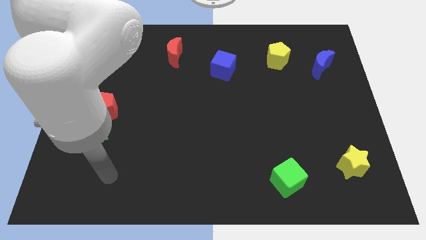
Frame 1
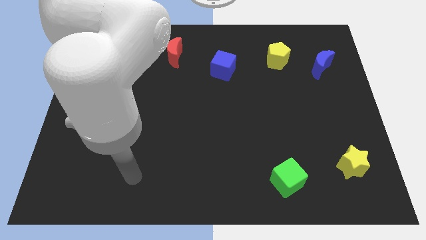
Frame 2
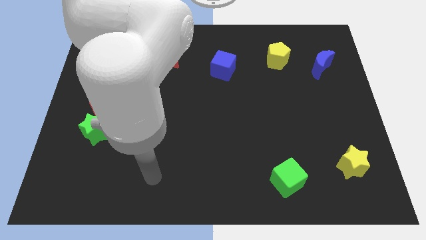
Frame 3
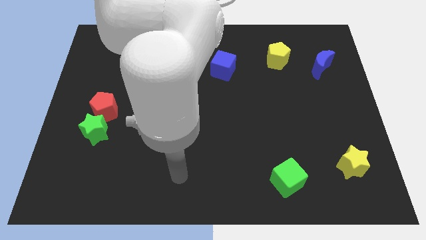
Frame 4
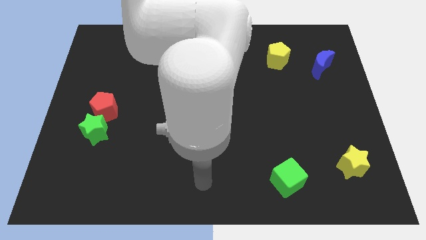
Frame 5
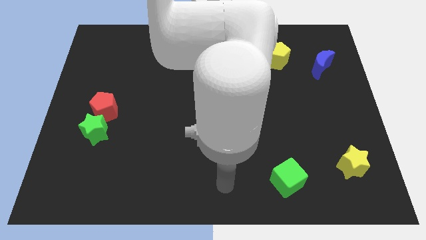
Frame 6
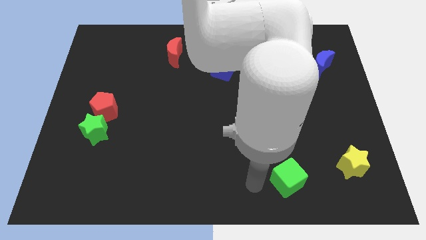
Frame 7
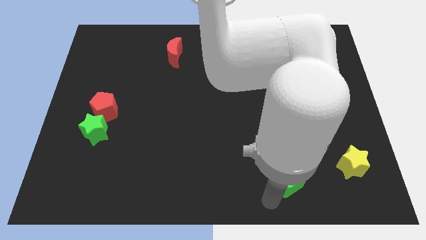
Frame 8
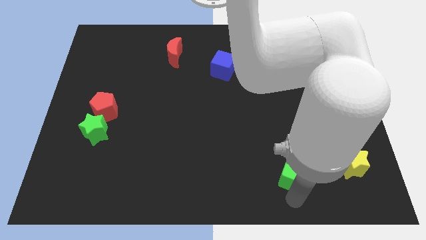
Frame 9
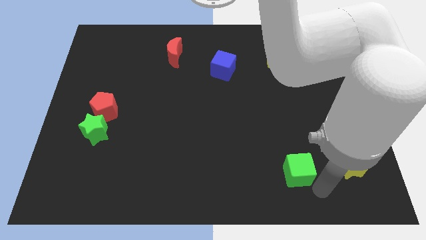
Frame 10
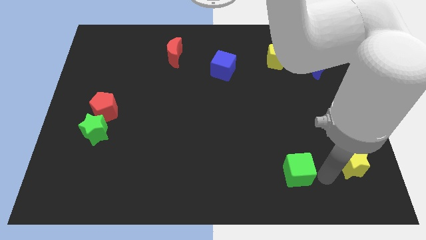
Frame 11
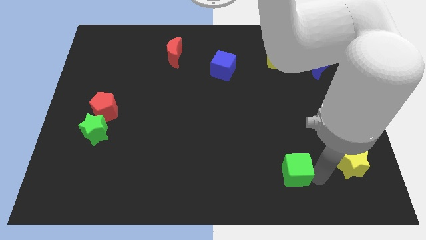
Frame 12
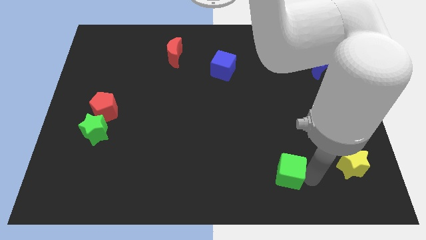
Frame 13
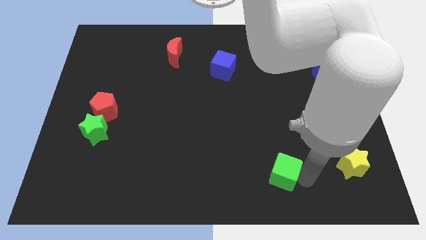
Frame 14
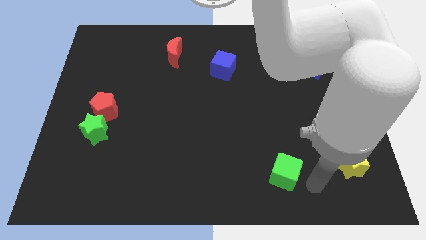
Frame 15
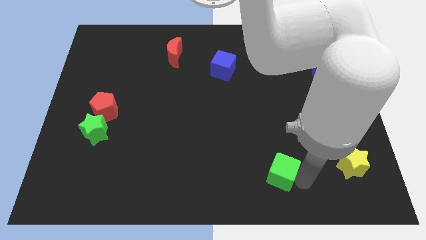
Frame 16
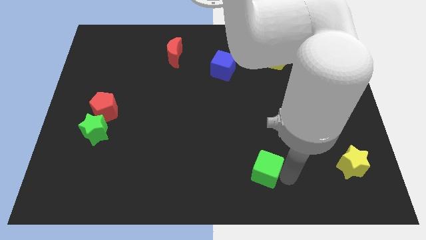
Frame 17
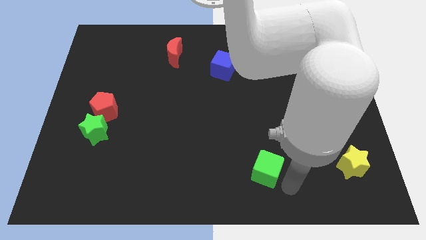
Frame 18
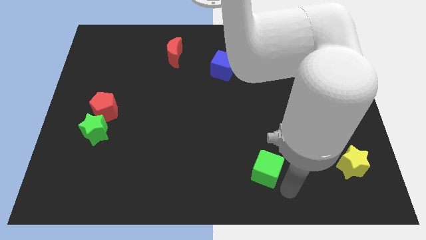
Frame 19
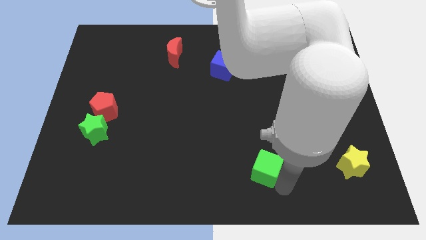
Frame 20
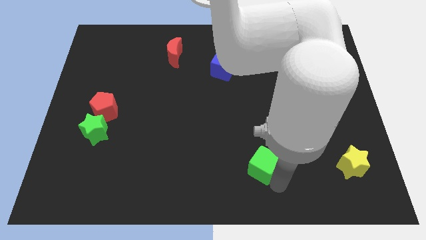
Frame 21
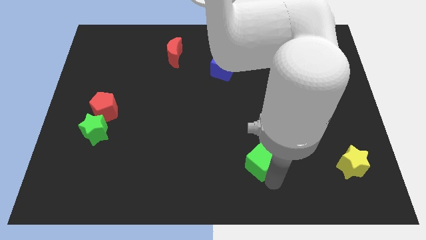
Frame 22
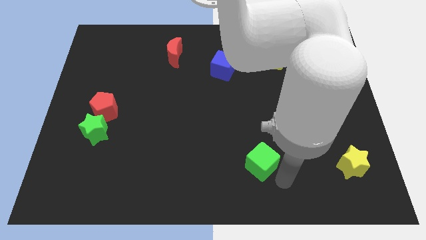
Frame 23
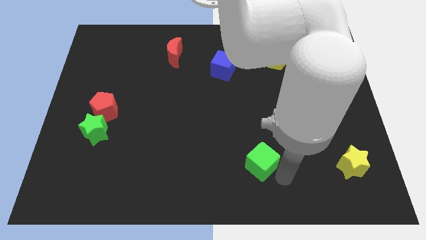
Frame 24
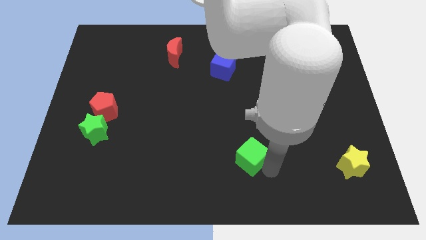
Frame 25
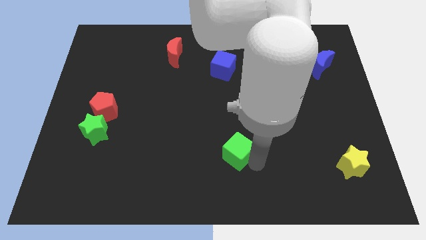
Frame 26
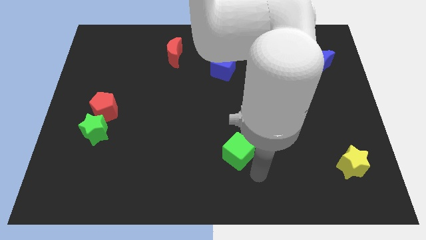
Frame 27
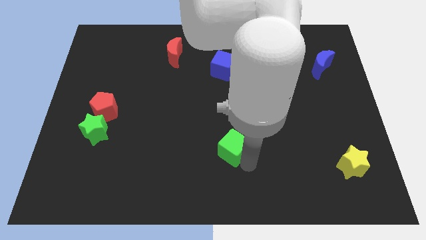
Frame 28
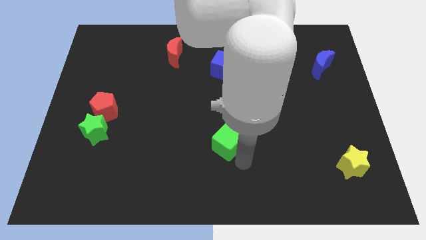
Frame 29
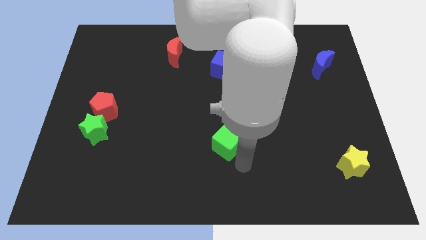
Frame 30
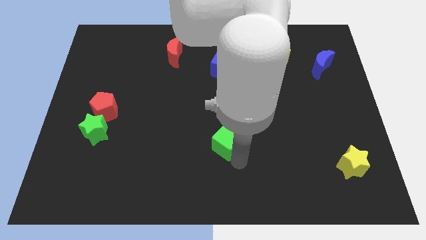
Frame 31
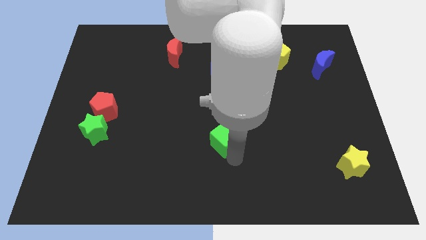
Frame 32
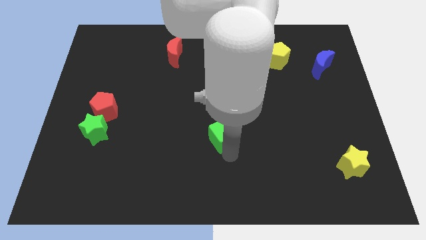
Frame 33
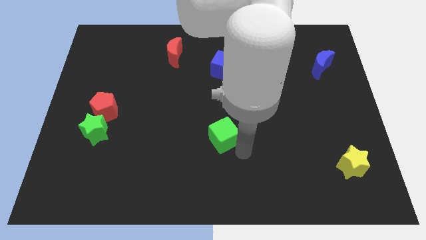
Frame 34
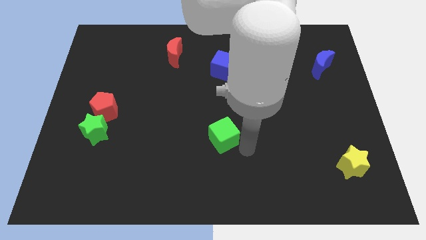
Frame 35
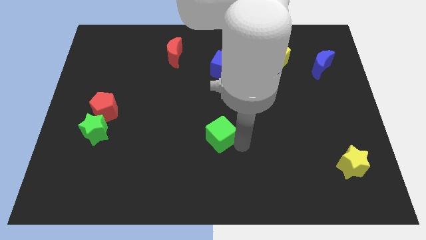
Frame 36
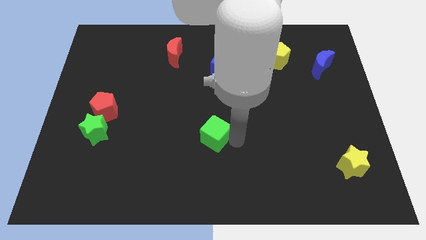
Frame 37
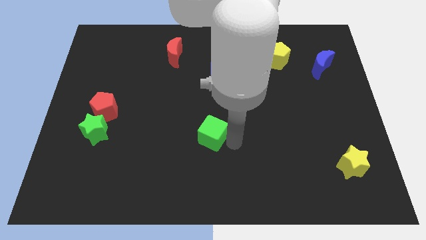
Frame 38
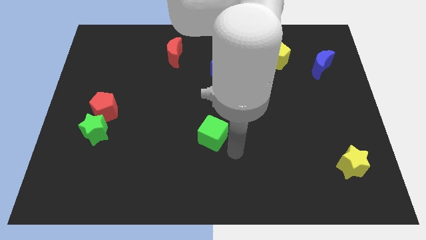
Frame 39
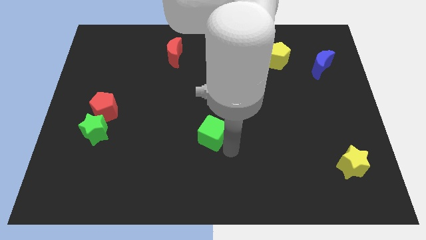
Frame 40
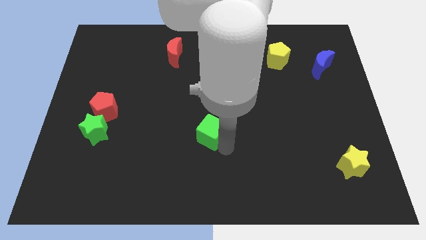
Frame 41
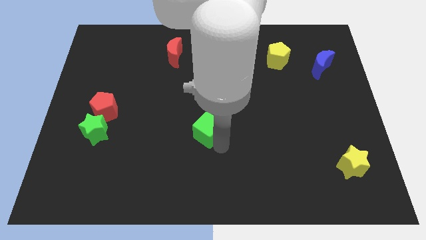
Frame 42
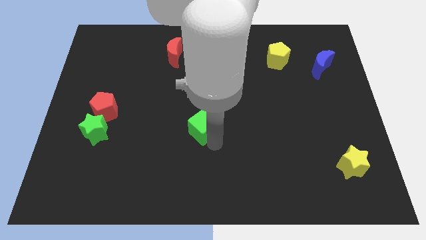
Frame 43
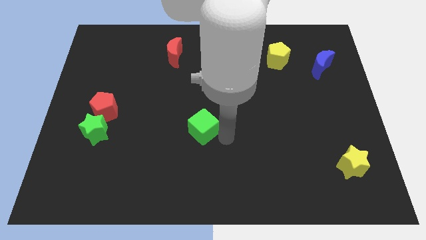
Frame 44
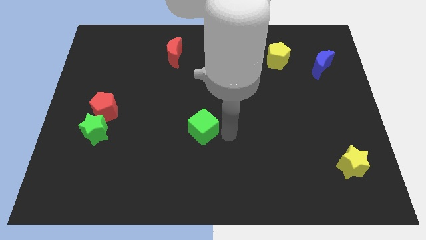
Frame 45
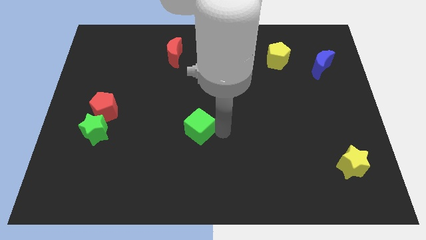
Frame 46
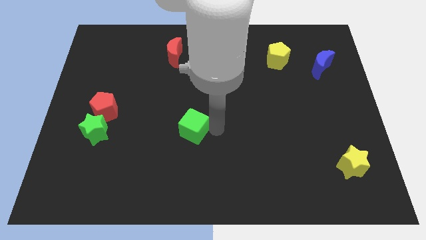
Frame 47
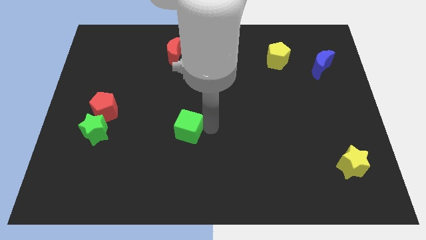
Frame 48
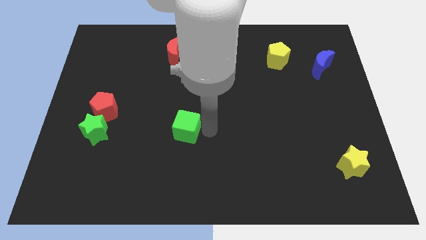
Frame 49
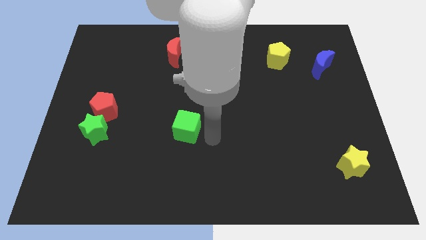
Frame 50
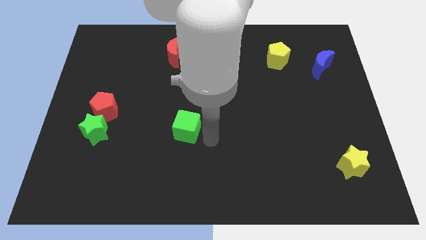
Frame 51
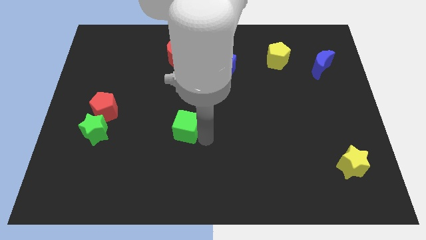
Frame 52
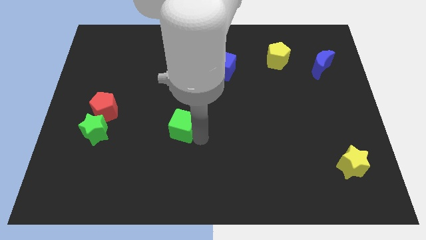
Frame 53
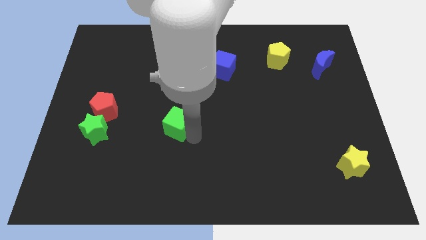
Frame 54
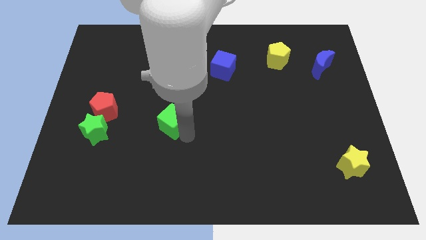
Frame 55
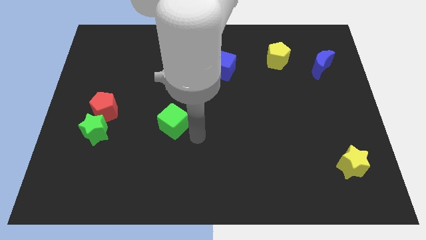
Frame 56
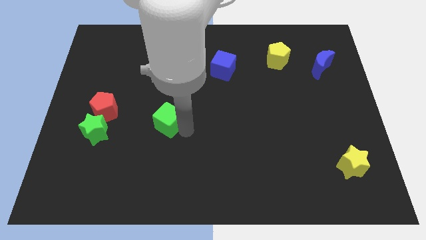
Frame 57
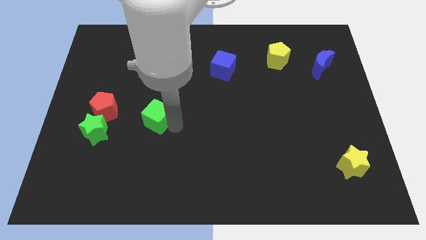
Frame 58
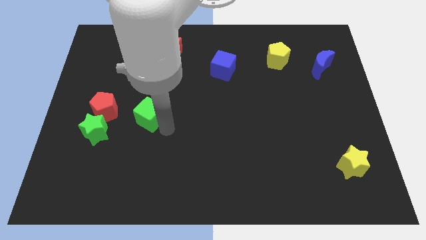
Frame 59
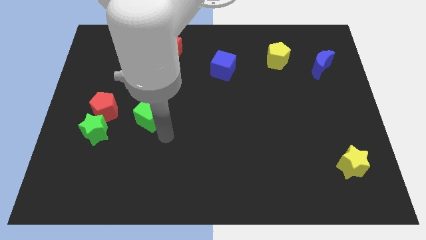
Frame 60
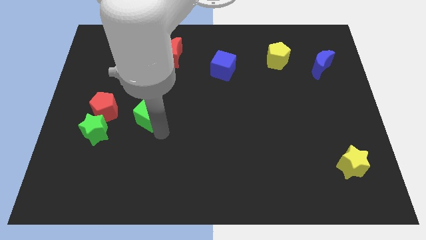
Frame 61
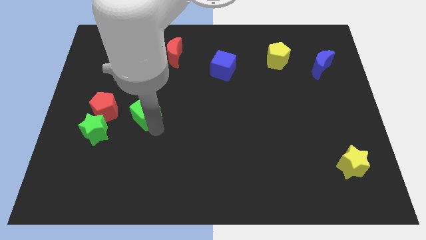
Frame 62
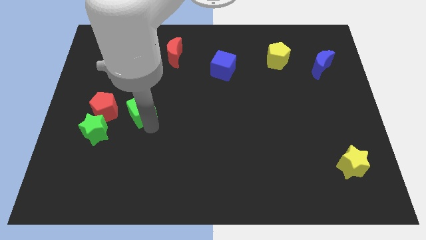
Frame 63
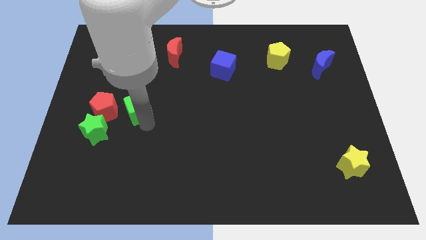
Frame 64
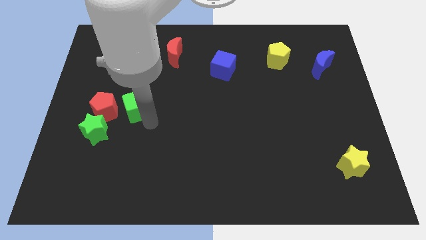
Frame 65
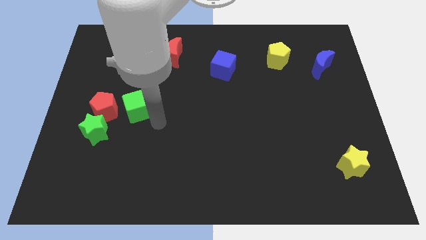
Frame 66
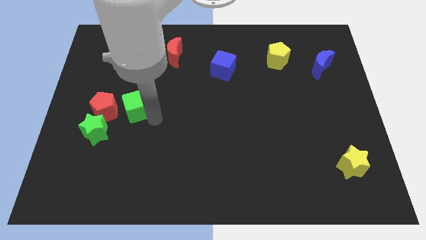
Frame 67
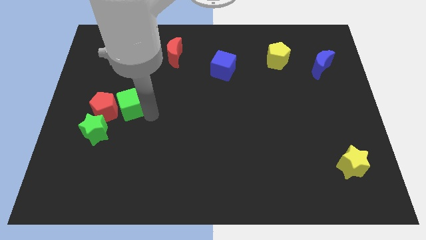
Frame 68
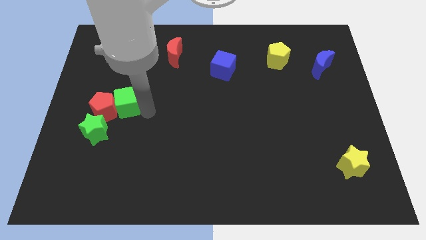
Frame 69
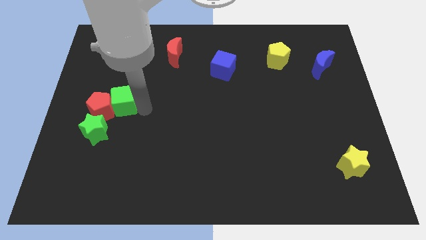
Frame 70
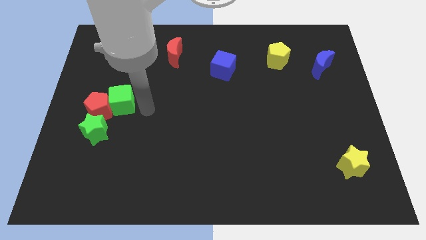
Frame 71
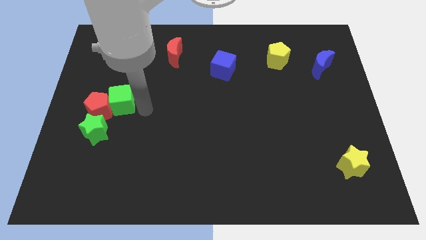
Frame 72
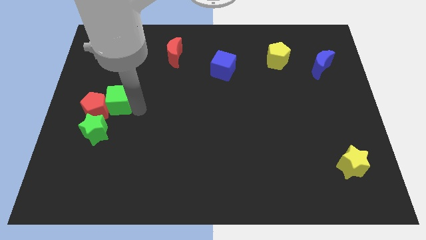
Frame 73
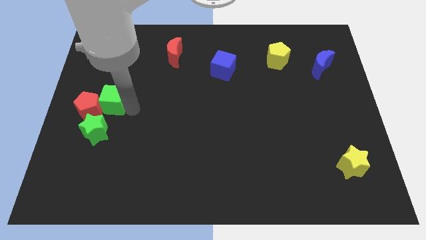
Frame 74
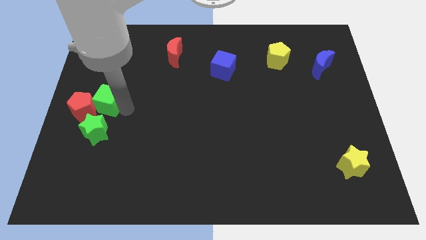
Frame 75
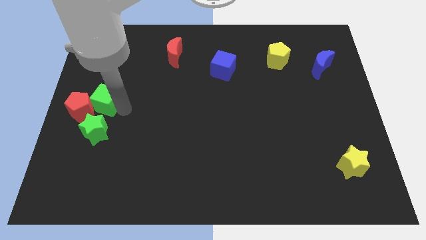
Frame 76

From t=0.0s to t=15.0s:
slide the green cube to the left side of the board

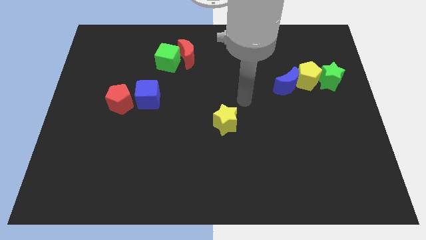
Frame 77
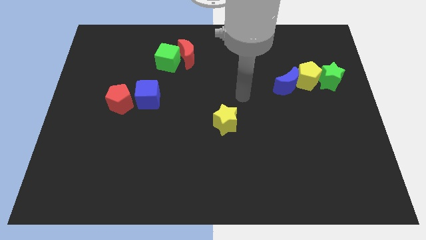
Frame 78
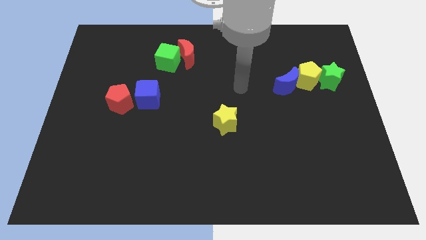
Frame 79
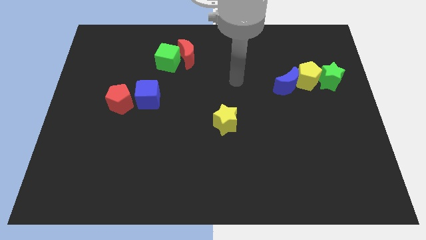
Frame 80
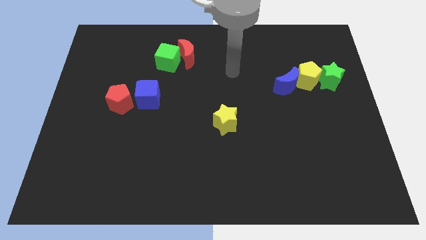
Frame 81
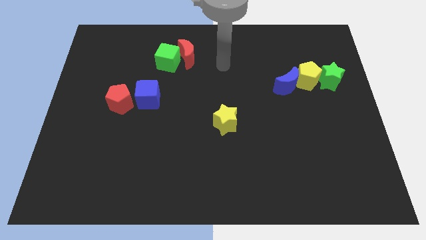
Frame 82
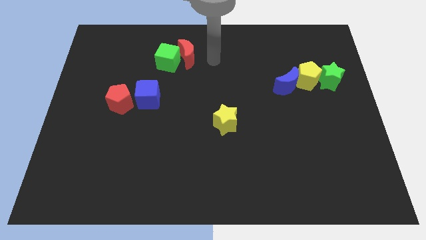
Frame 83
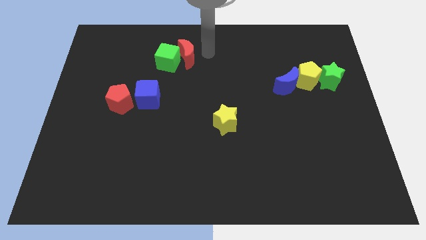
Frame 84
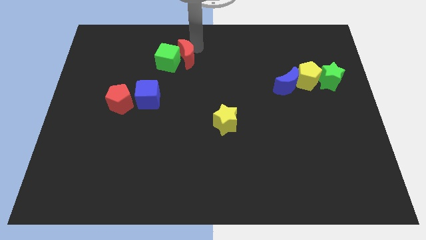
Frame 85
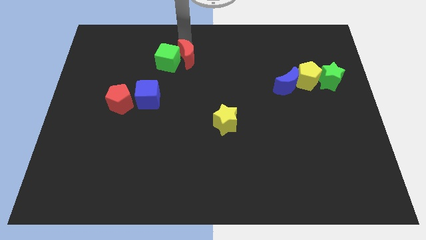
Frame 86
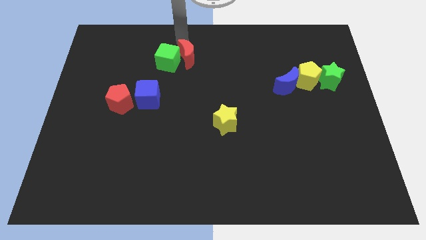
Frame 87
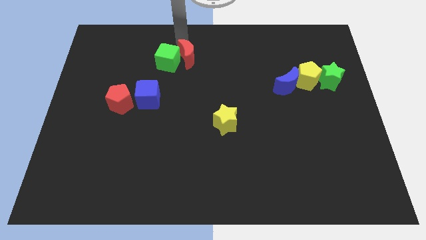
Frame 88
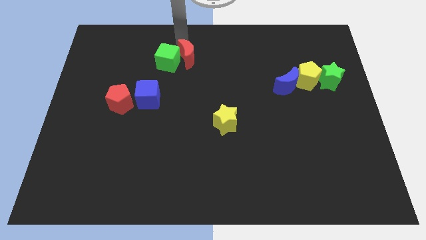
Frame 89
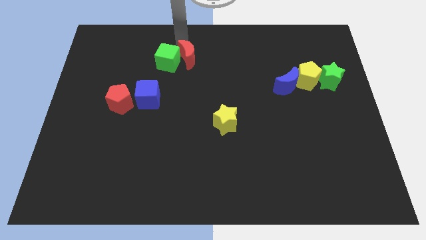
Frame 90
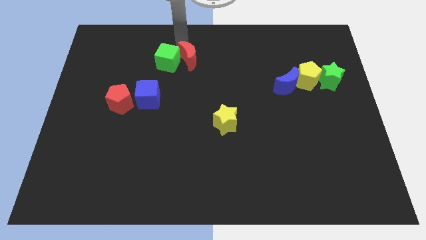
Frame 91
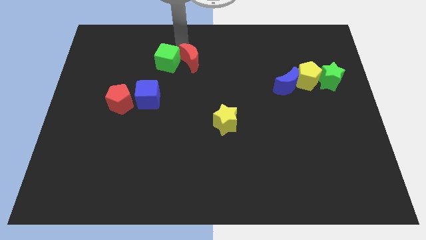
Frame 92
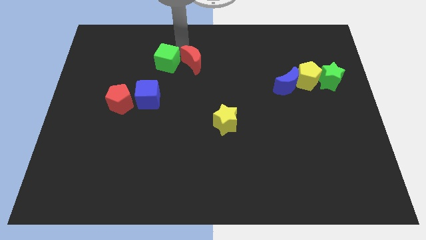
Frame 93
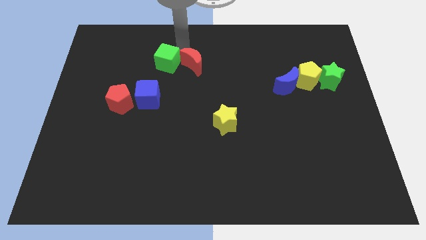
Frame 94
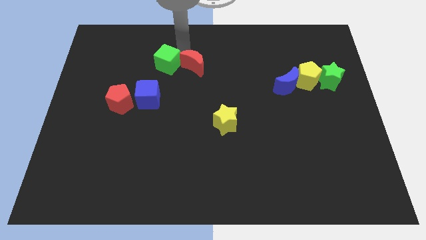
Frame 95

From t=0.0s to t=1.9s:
move the red moon to the middle
